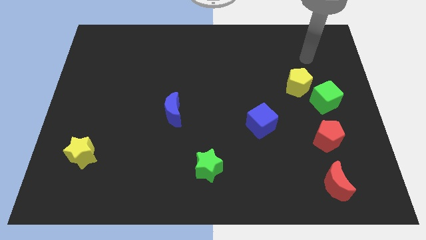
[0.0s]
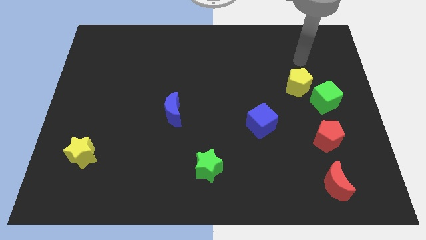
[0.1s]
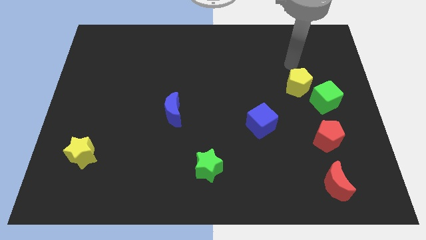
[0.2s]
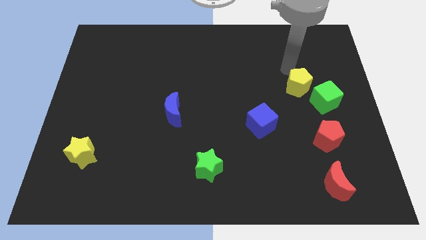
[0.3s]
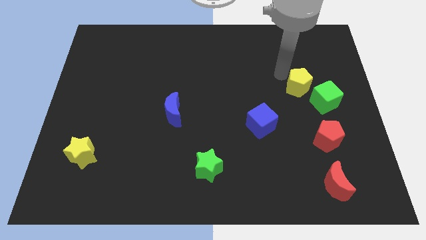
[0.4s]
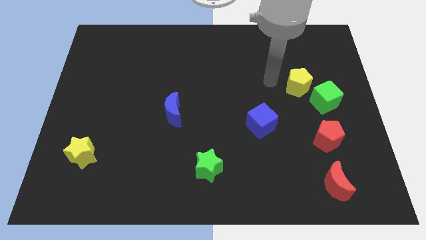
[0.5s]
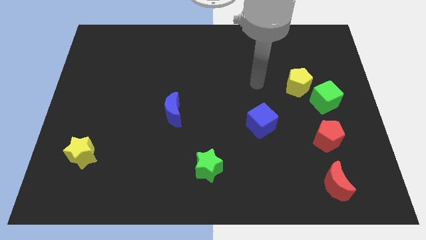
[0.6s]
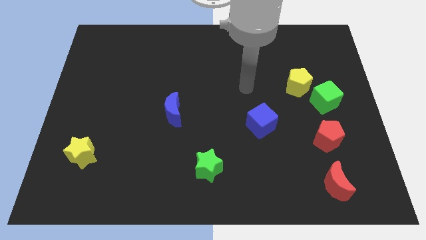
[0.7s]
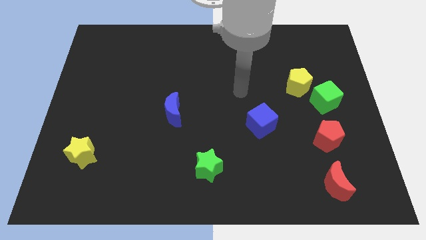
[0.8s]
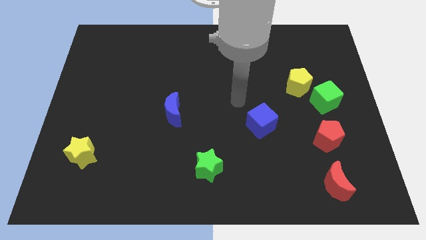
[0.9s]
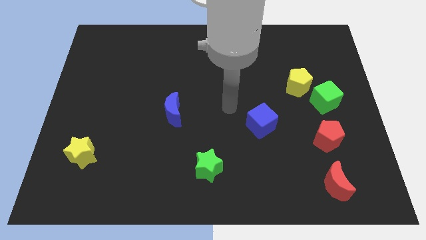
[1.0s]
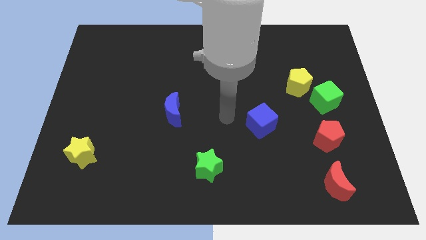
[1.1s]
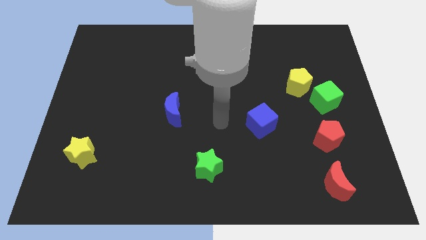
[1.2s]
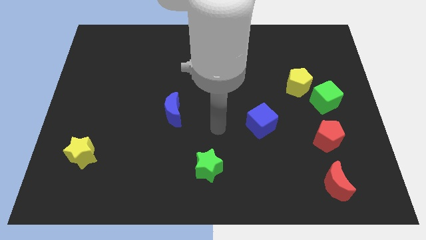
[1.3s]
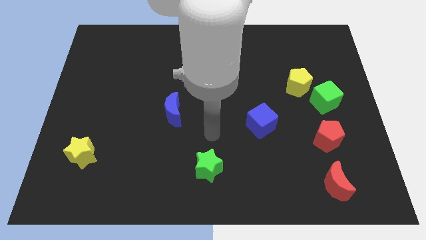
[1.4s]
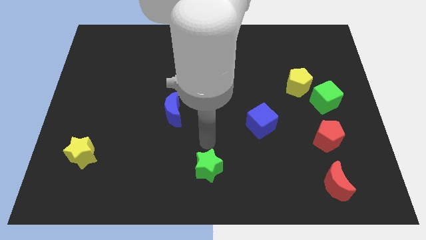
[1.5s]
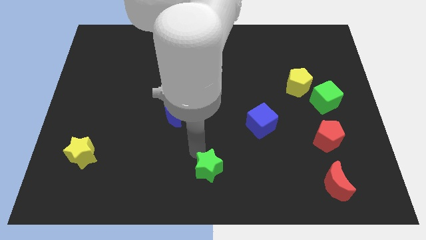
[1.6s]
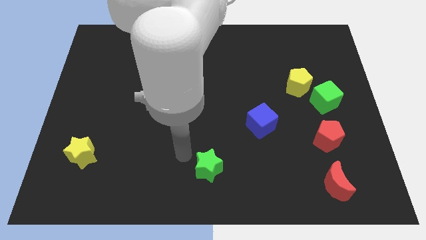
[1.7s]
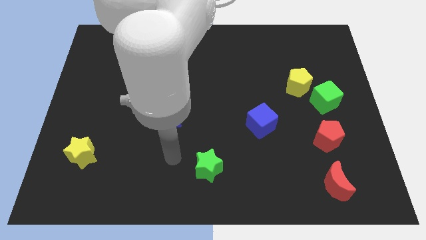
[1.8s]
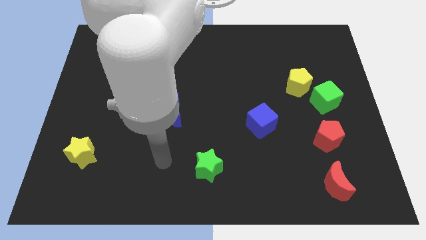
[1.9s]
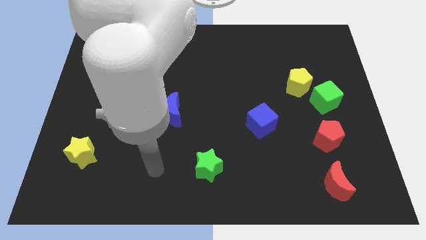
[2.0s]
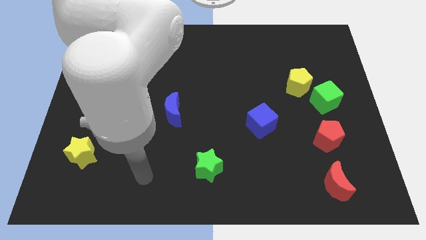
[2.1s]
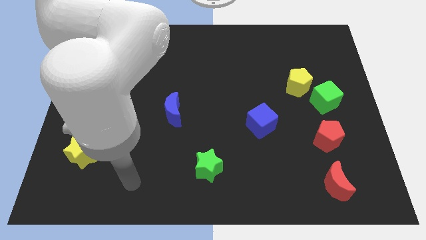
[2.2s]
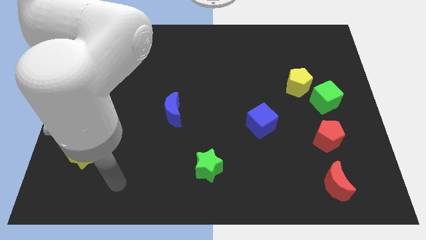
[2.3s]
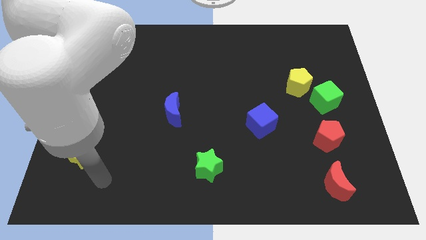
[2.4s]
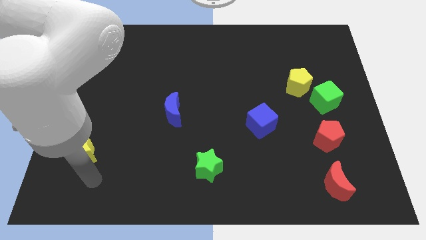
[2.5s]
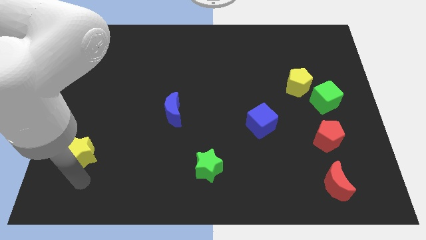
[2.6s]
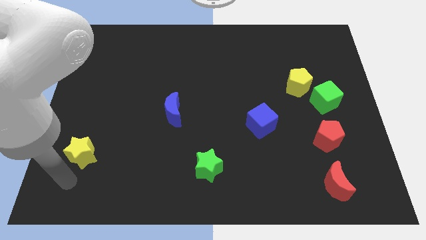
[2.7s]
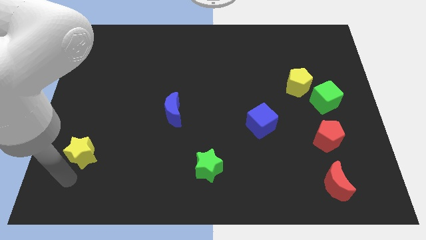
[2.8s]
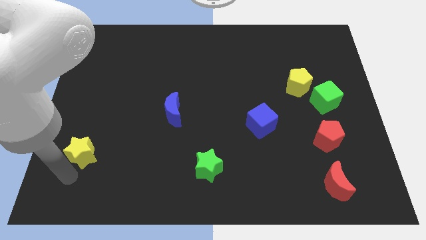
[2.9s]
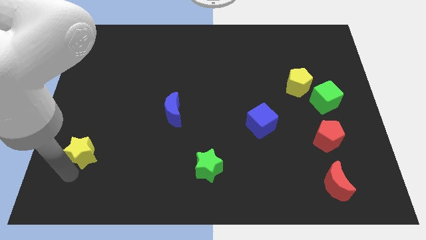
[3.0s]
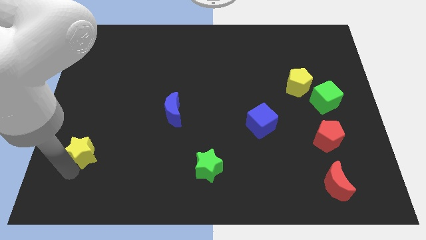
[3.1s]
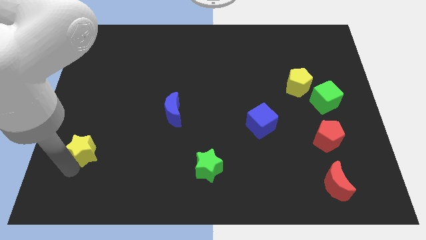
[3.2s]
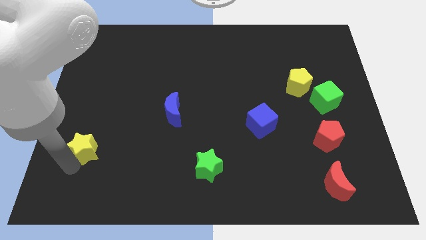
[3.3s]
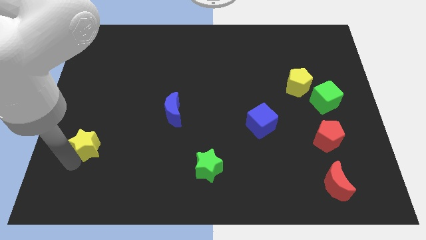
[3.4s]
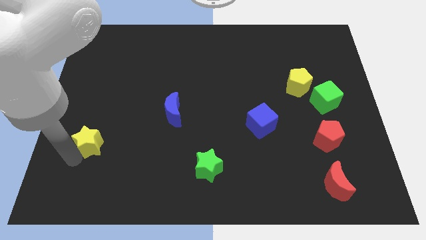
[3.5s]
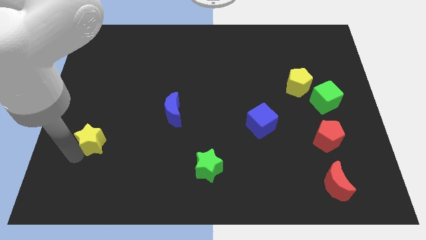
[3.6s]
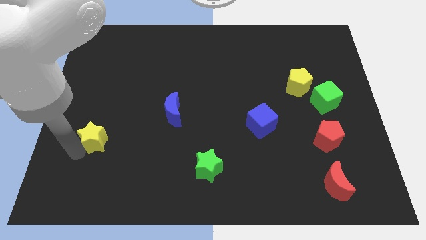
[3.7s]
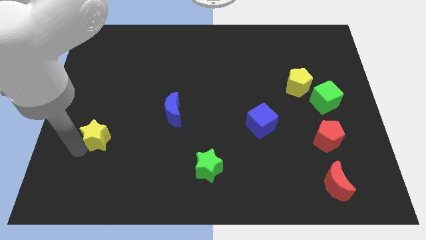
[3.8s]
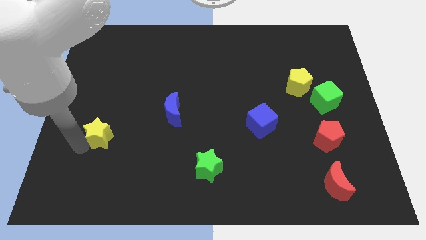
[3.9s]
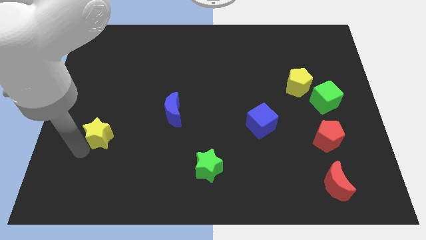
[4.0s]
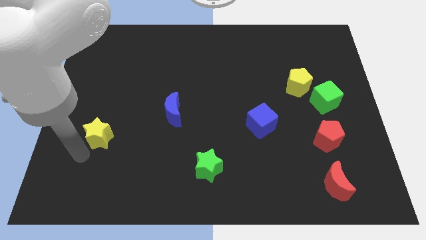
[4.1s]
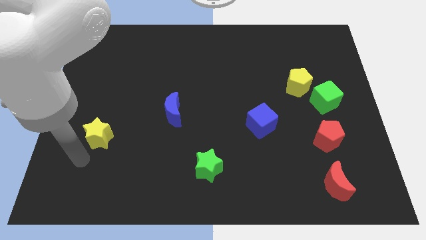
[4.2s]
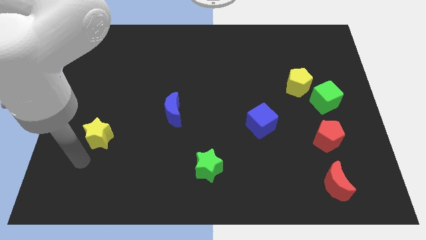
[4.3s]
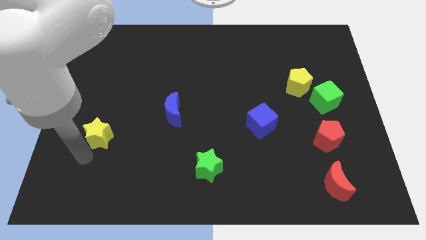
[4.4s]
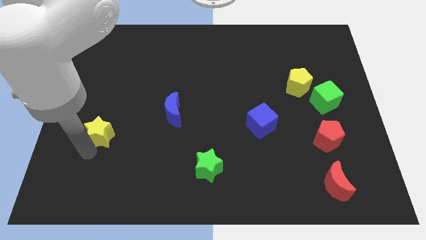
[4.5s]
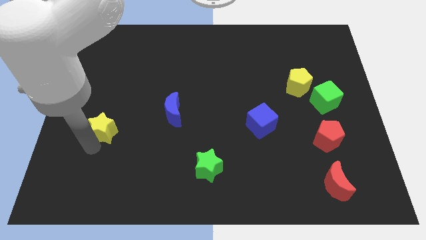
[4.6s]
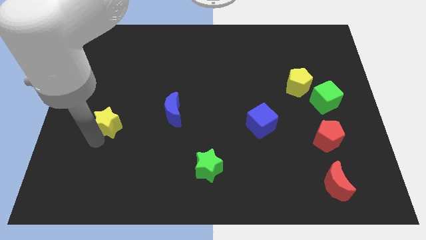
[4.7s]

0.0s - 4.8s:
push the yellow star left of the blue moon

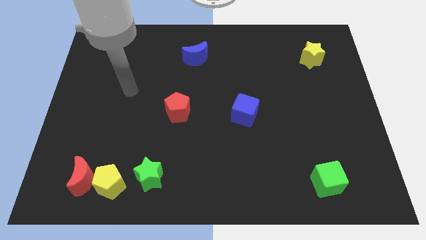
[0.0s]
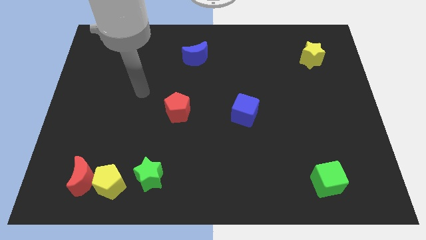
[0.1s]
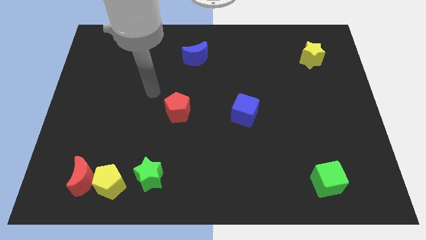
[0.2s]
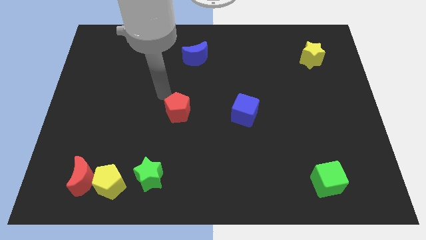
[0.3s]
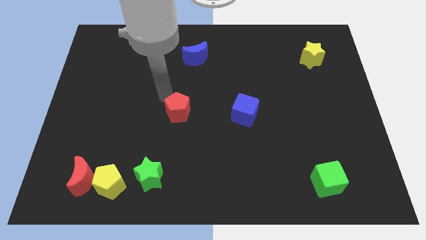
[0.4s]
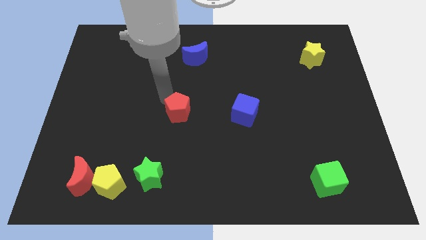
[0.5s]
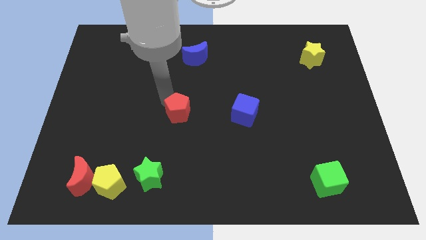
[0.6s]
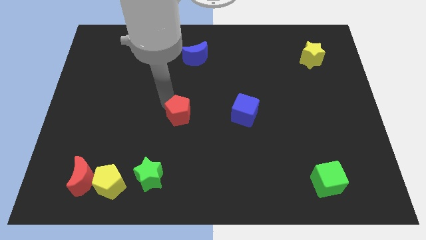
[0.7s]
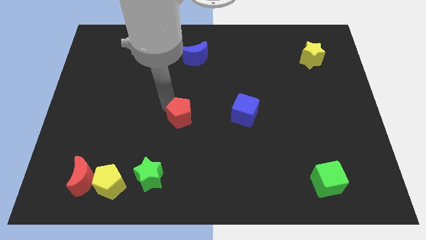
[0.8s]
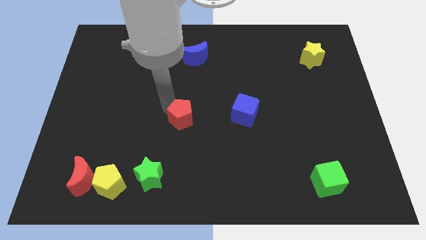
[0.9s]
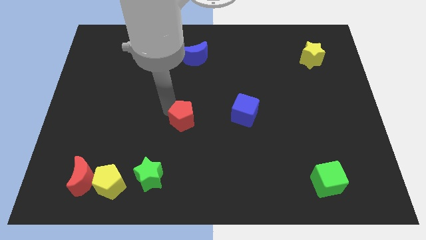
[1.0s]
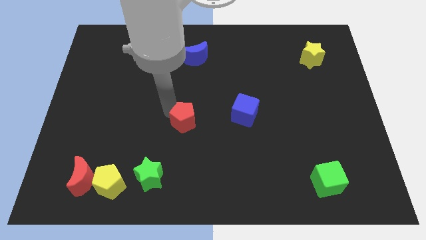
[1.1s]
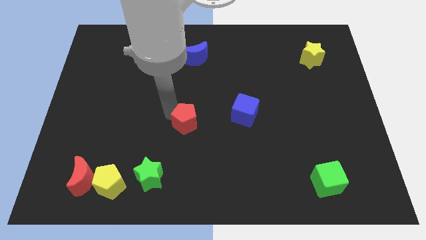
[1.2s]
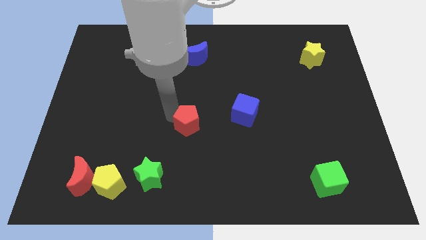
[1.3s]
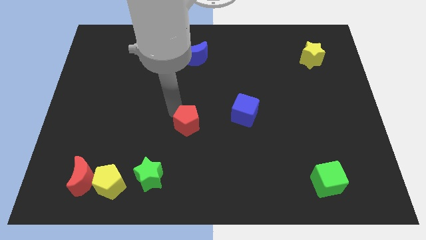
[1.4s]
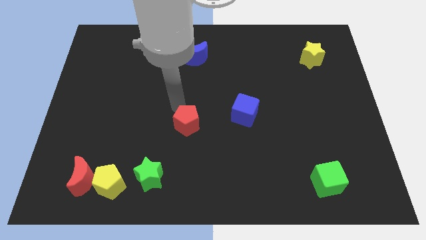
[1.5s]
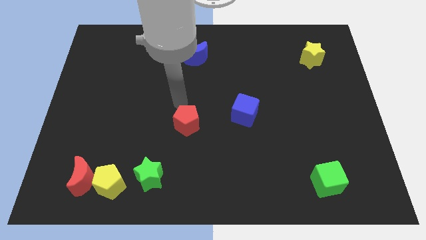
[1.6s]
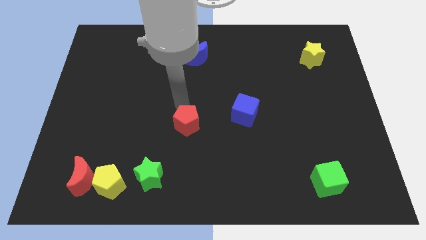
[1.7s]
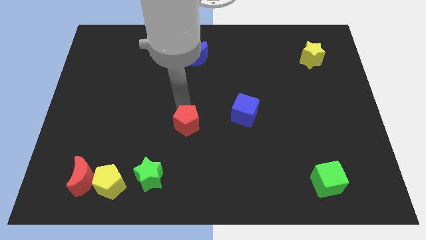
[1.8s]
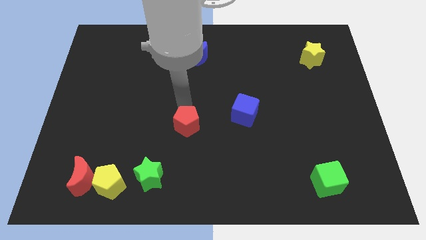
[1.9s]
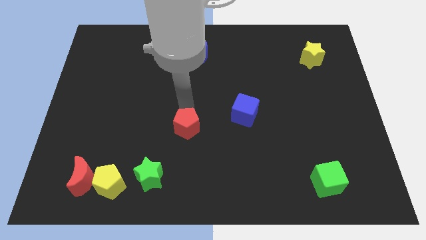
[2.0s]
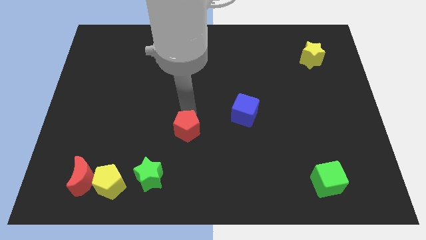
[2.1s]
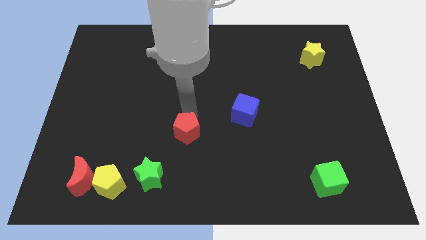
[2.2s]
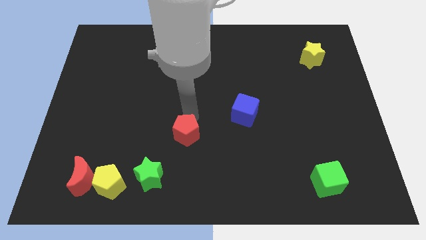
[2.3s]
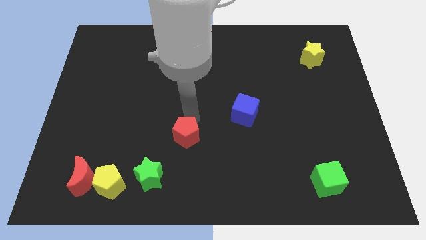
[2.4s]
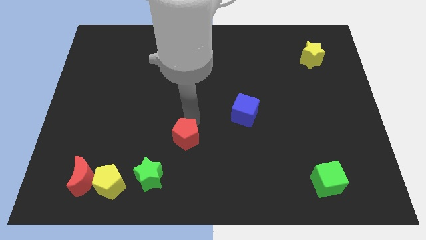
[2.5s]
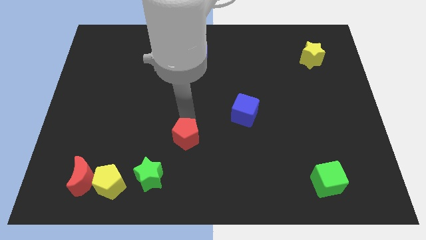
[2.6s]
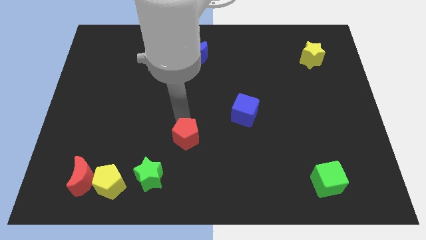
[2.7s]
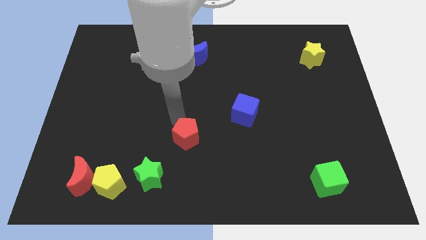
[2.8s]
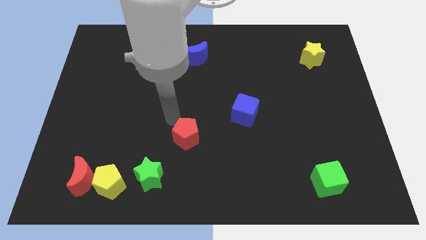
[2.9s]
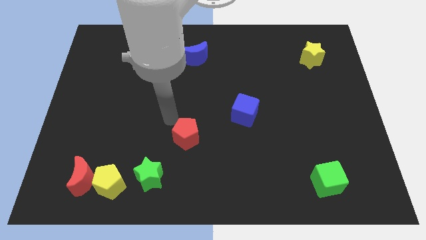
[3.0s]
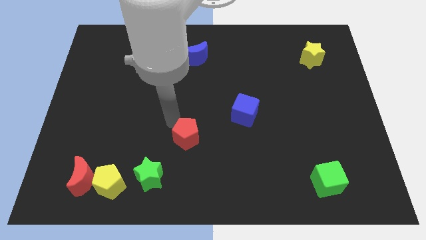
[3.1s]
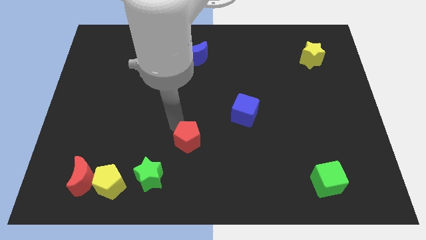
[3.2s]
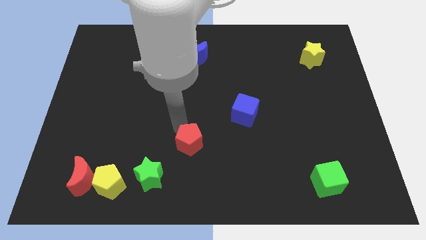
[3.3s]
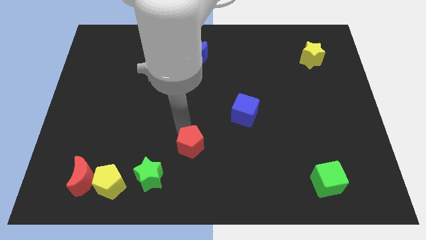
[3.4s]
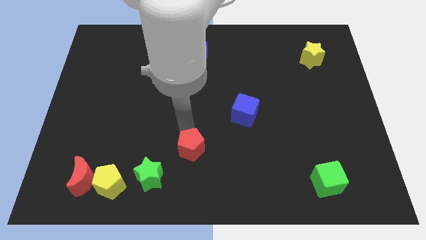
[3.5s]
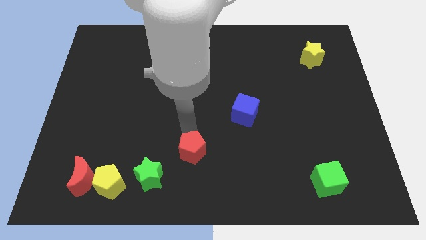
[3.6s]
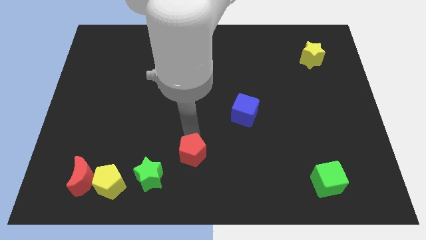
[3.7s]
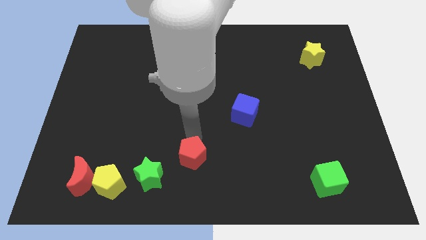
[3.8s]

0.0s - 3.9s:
put the red pentagon to the right of the green star
